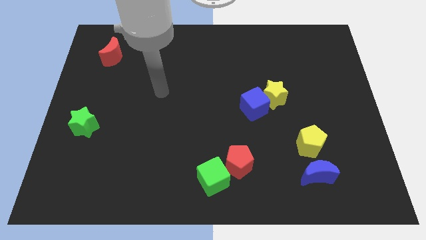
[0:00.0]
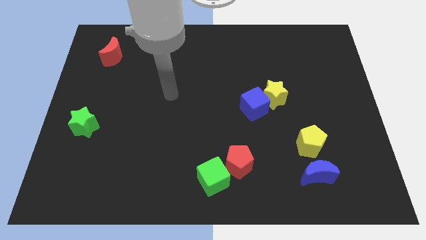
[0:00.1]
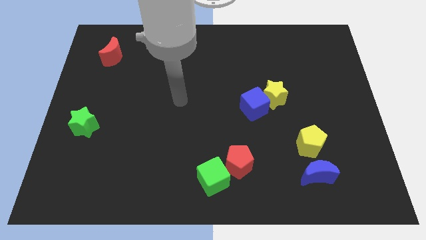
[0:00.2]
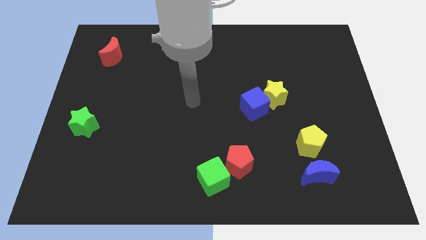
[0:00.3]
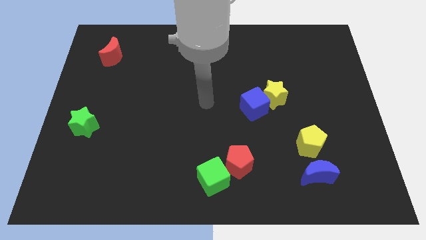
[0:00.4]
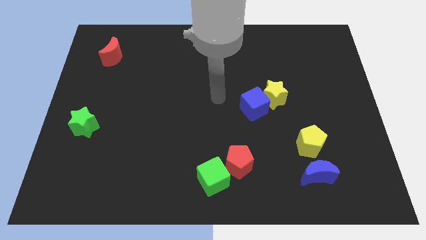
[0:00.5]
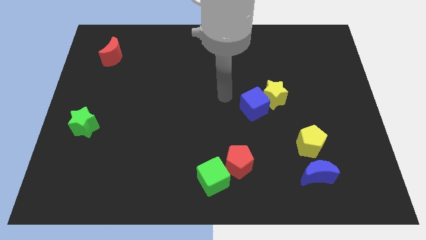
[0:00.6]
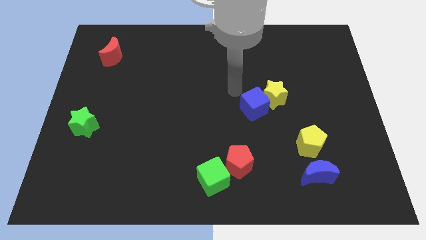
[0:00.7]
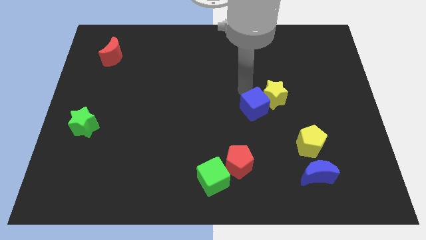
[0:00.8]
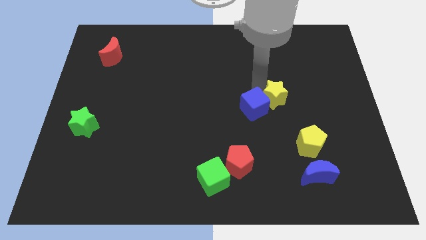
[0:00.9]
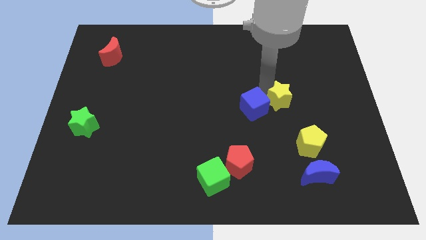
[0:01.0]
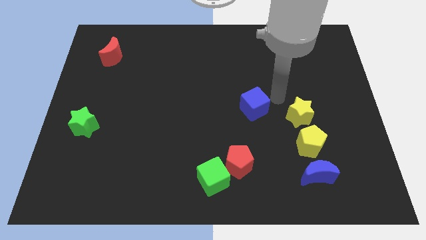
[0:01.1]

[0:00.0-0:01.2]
move the blue cube away from the yellow star

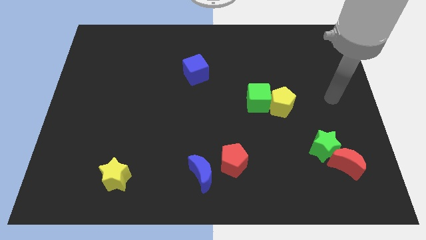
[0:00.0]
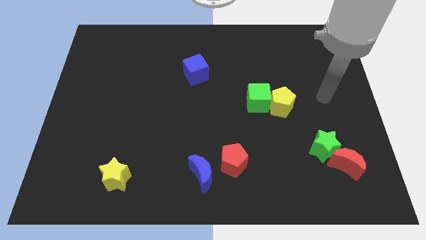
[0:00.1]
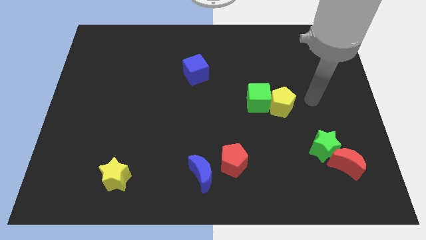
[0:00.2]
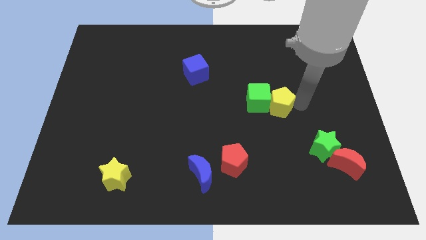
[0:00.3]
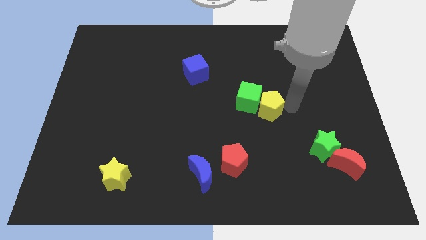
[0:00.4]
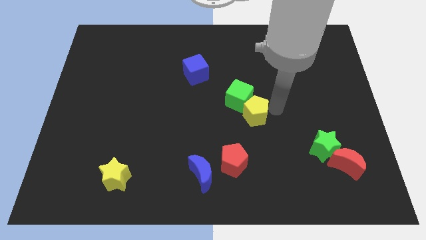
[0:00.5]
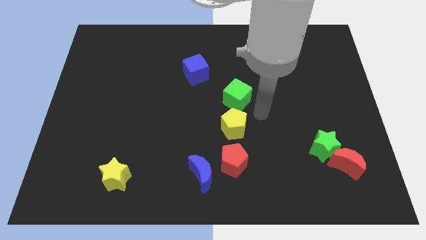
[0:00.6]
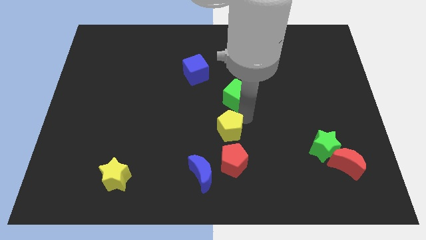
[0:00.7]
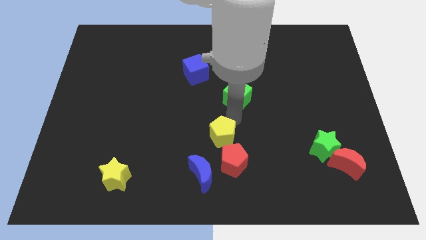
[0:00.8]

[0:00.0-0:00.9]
separate the green cube from the yellow pentagon

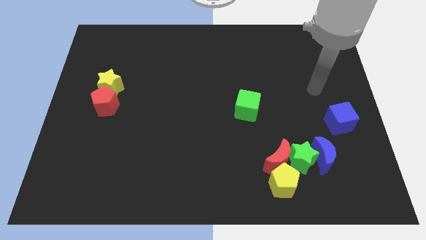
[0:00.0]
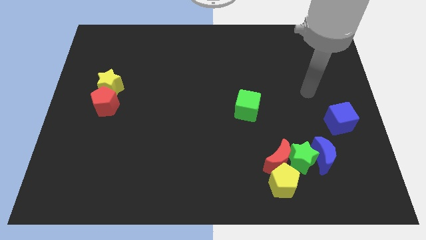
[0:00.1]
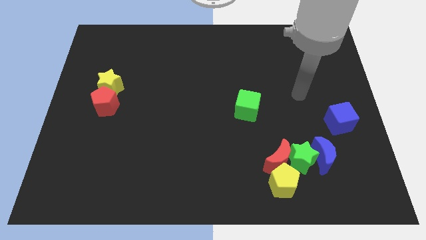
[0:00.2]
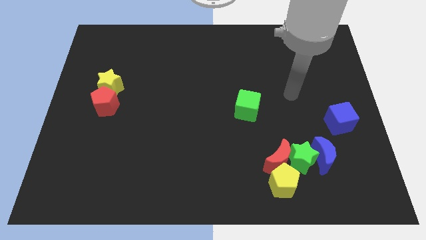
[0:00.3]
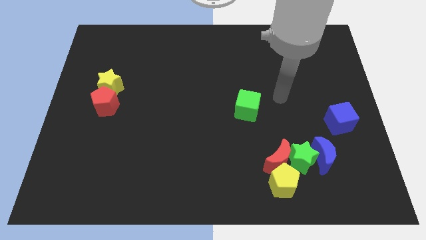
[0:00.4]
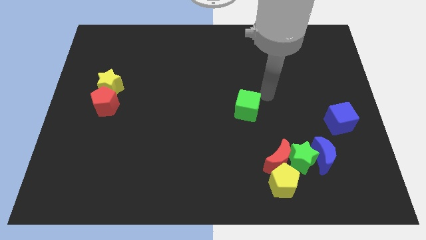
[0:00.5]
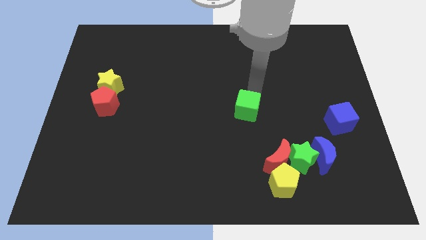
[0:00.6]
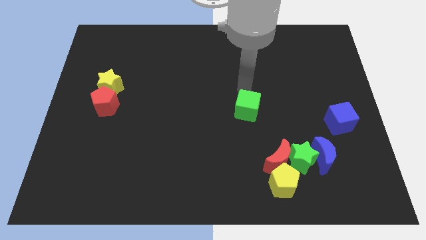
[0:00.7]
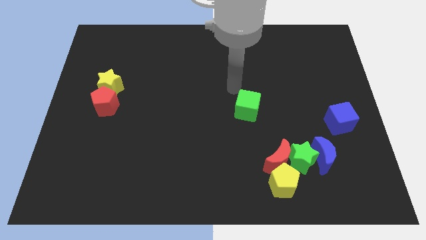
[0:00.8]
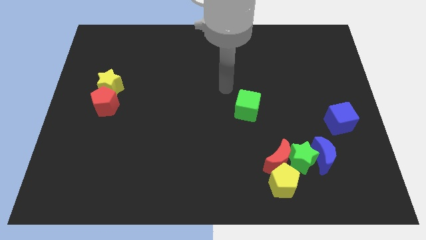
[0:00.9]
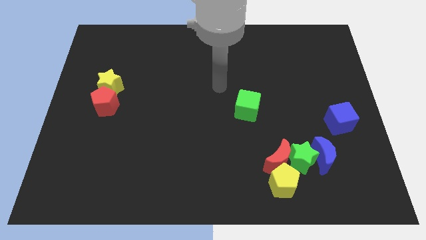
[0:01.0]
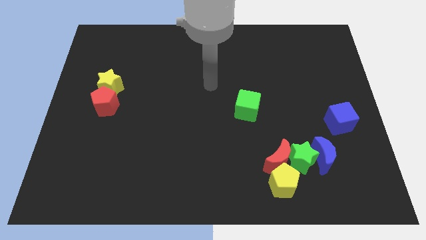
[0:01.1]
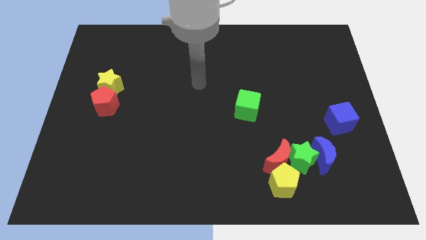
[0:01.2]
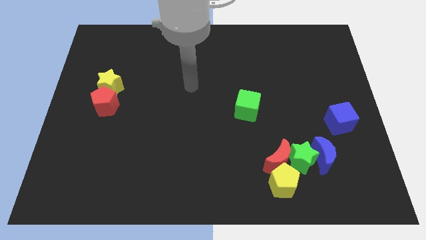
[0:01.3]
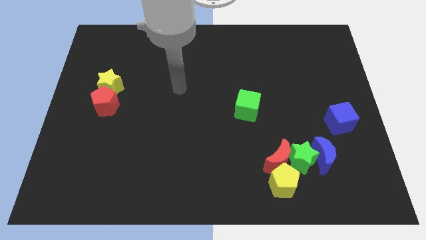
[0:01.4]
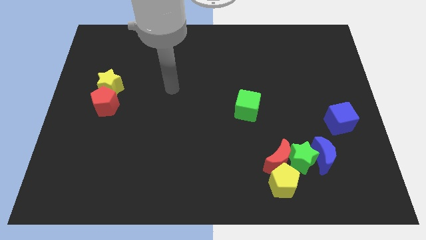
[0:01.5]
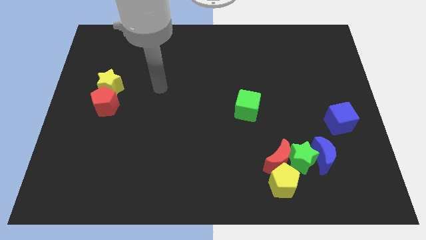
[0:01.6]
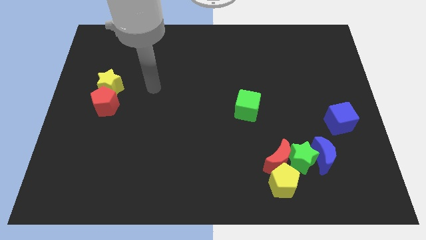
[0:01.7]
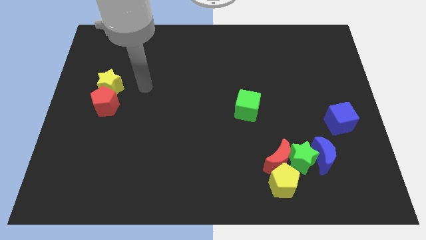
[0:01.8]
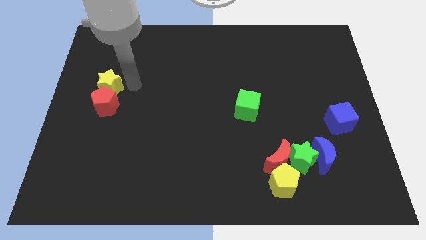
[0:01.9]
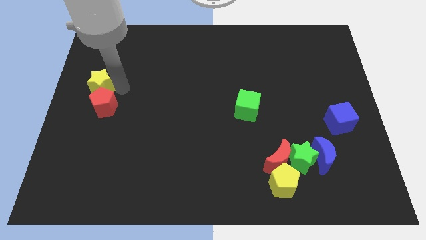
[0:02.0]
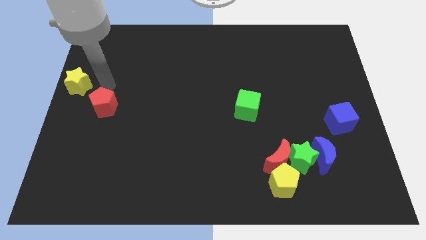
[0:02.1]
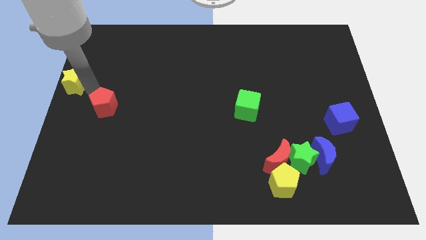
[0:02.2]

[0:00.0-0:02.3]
move the red pentagon away from the yellow star

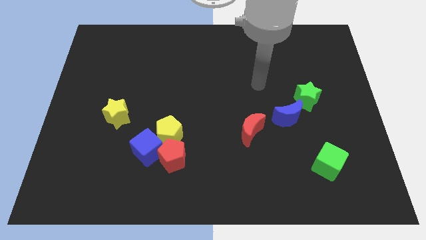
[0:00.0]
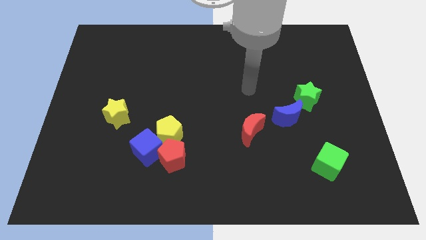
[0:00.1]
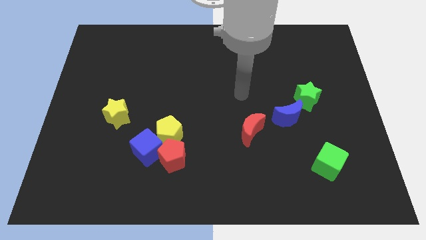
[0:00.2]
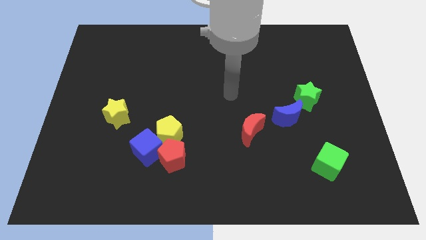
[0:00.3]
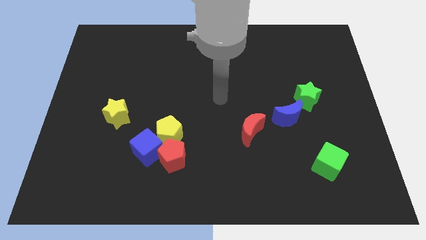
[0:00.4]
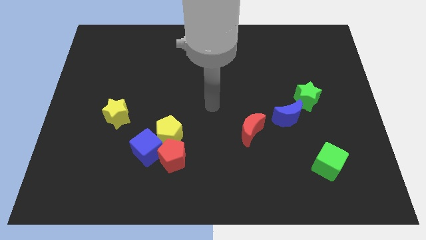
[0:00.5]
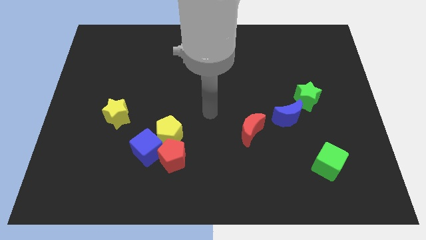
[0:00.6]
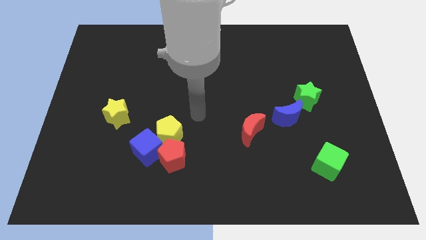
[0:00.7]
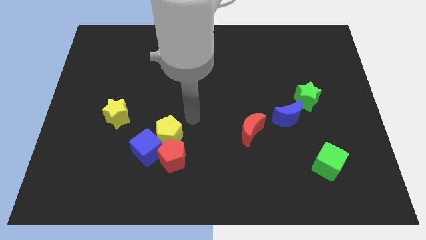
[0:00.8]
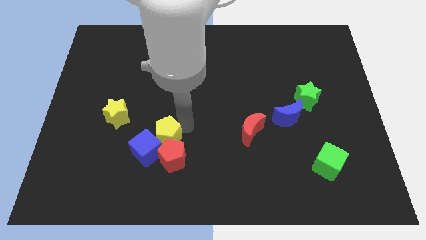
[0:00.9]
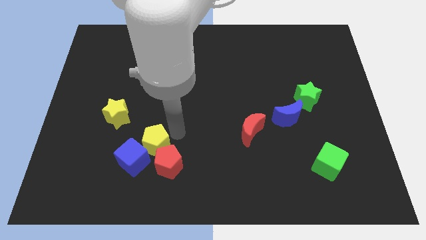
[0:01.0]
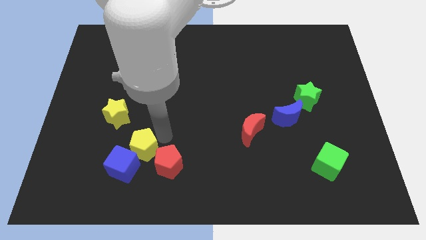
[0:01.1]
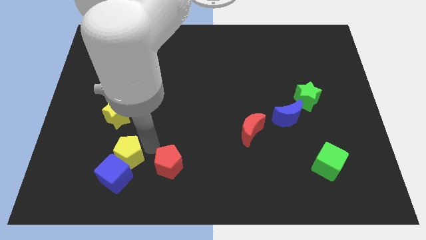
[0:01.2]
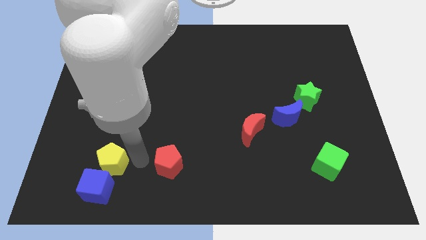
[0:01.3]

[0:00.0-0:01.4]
separate the red pentagon from the blue cube and yellow pentagon

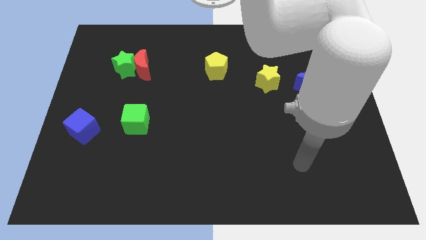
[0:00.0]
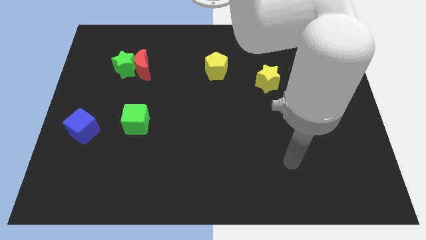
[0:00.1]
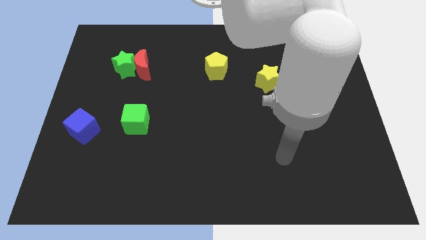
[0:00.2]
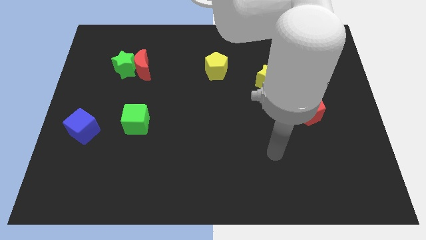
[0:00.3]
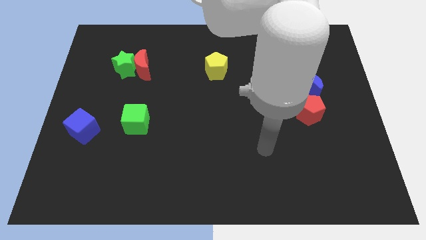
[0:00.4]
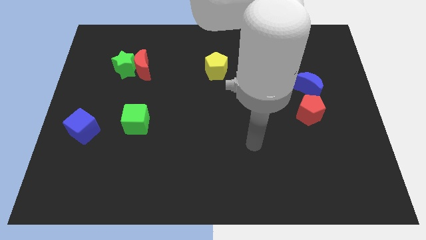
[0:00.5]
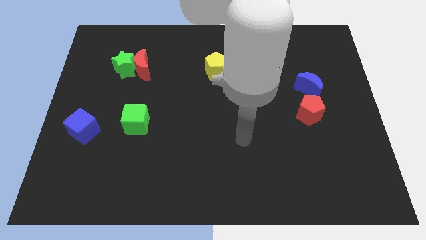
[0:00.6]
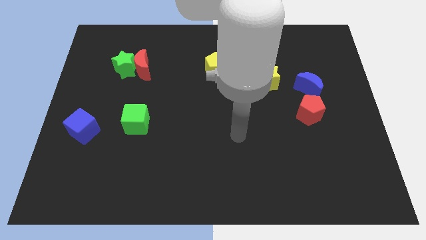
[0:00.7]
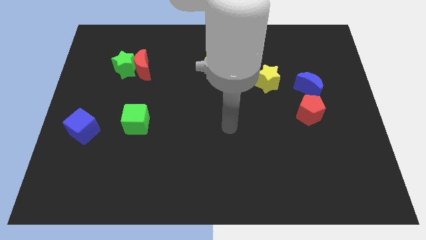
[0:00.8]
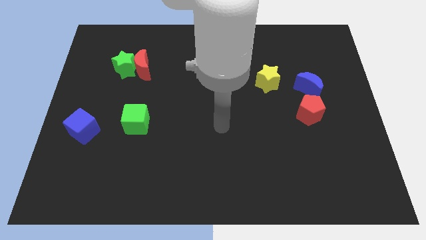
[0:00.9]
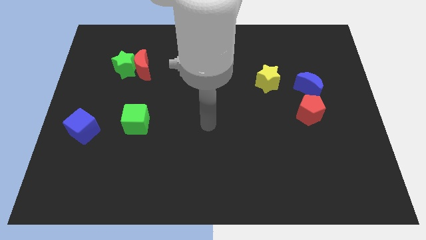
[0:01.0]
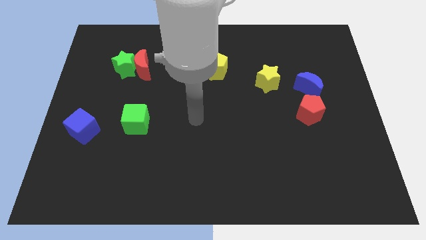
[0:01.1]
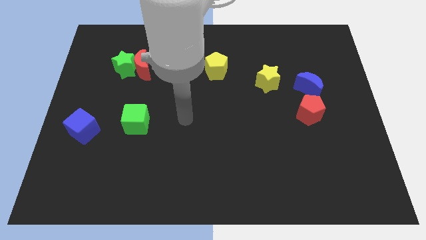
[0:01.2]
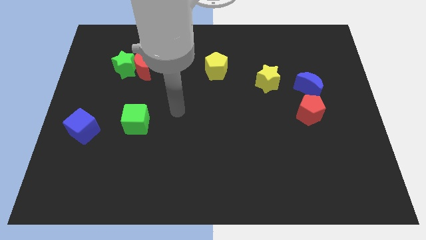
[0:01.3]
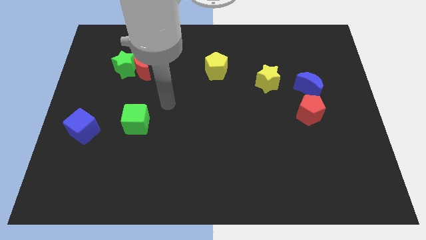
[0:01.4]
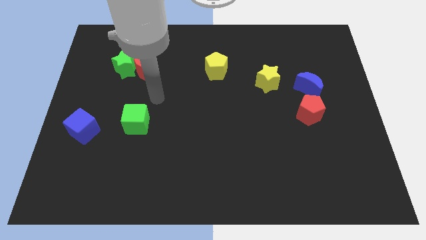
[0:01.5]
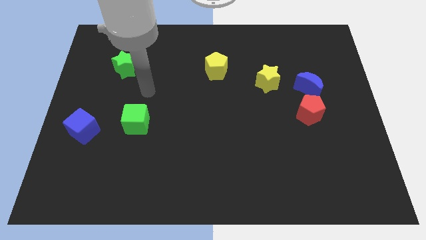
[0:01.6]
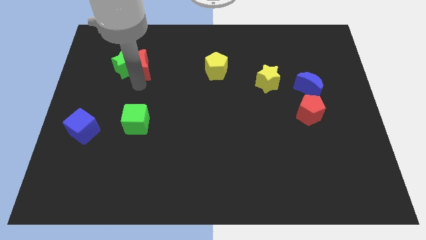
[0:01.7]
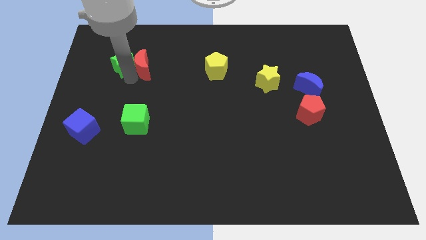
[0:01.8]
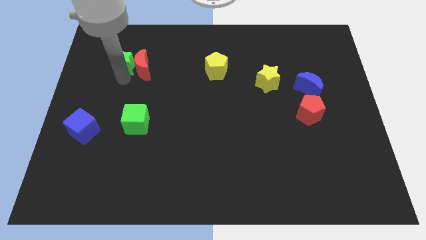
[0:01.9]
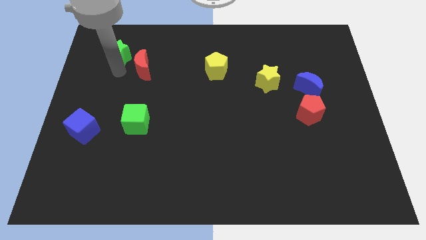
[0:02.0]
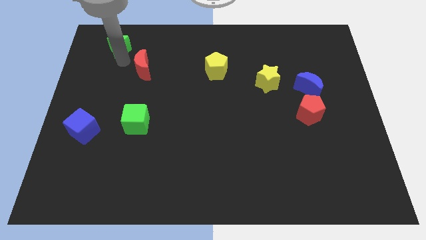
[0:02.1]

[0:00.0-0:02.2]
move the red moon away from the green star

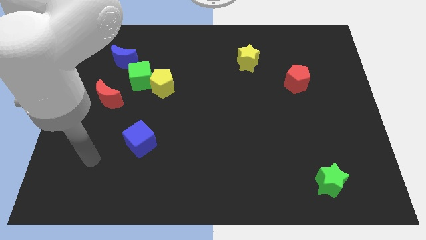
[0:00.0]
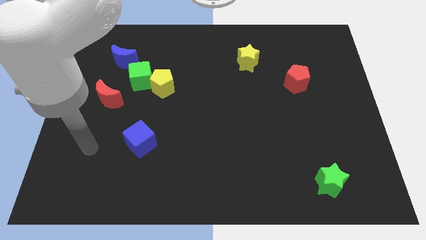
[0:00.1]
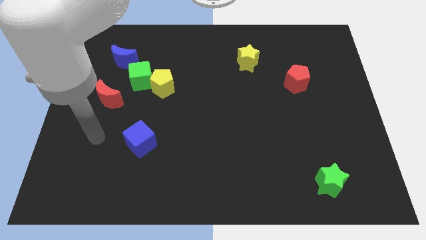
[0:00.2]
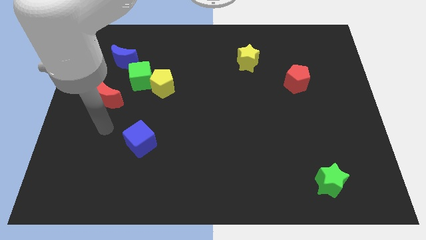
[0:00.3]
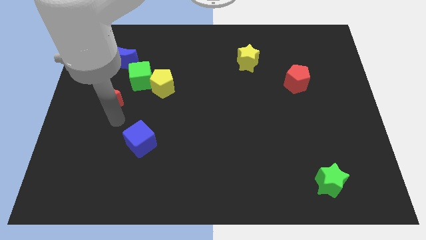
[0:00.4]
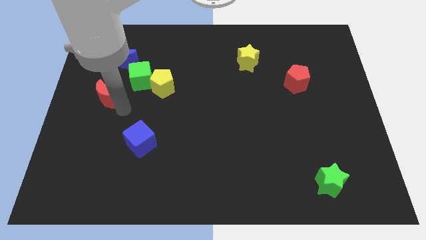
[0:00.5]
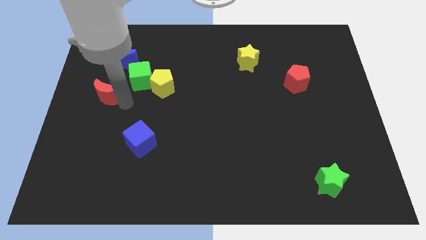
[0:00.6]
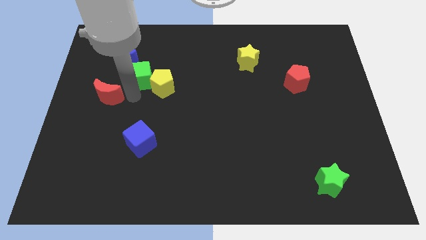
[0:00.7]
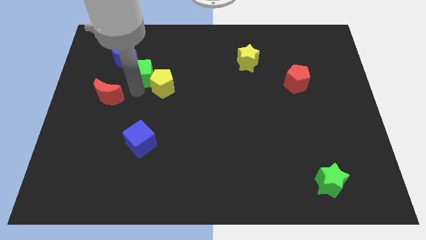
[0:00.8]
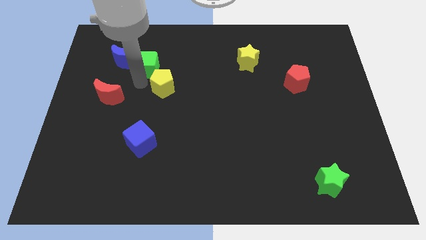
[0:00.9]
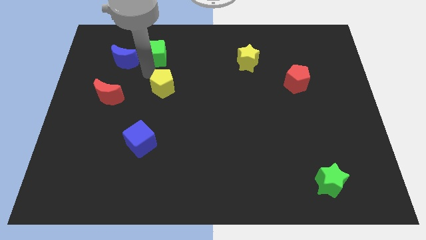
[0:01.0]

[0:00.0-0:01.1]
move the yellow pentagon away from the green cube

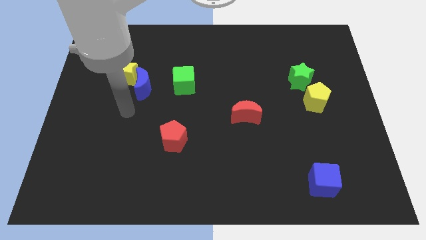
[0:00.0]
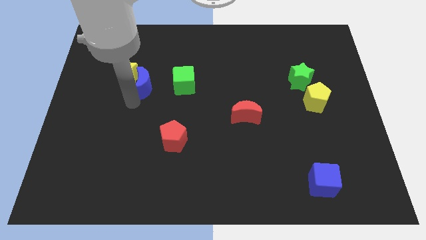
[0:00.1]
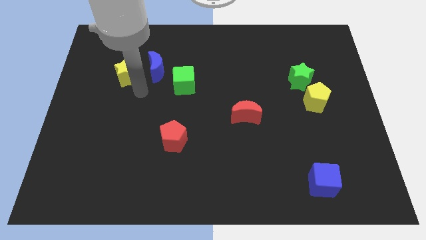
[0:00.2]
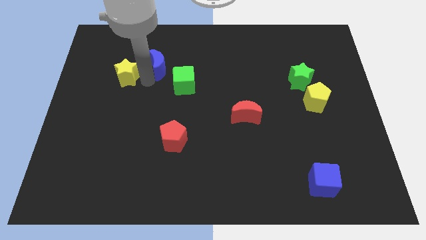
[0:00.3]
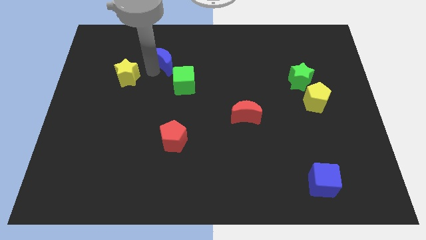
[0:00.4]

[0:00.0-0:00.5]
separate the yellow star from the blue moon
